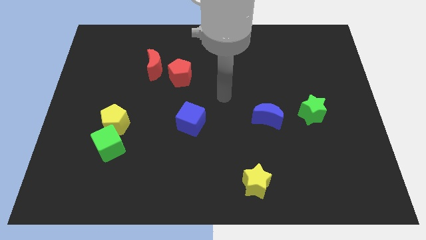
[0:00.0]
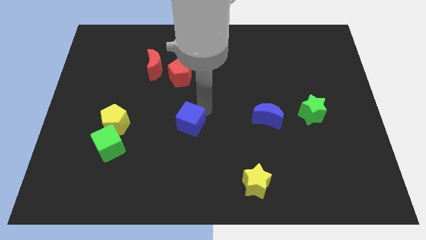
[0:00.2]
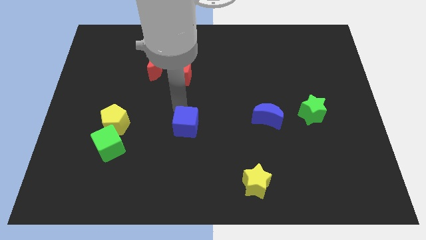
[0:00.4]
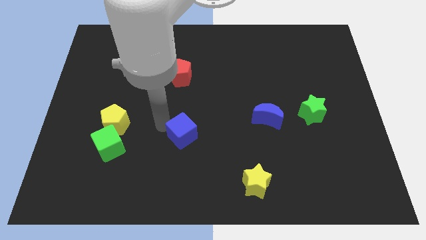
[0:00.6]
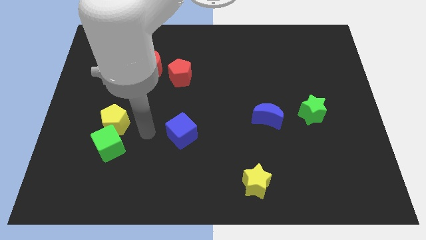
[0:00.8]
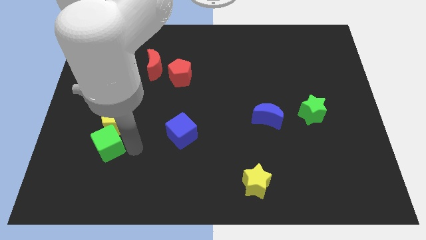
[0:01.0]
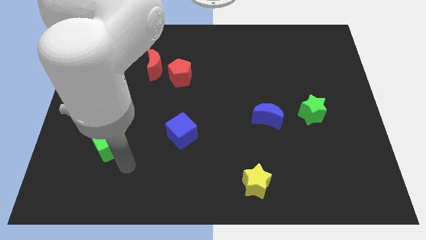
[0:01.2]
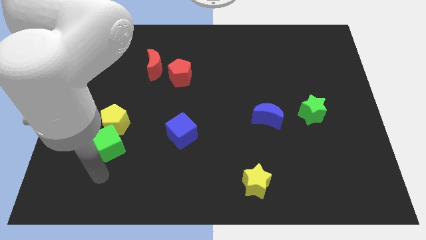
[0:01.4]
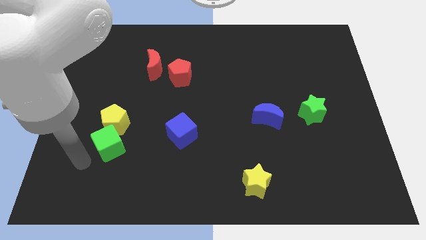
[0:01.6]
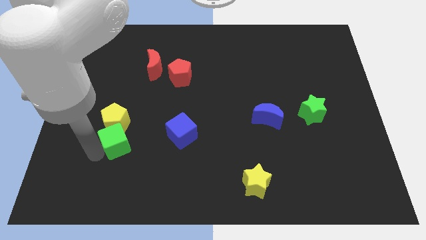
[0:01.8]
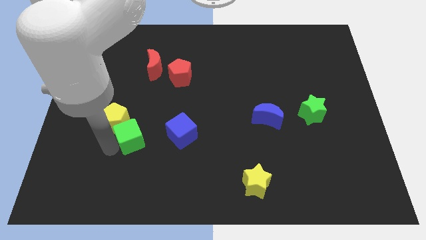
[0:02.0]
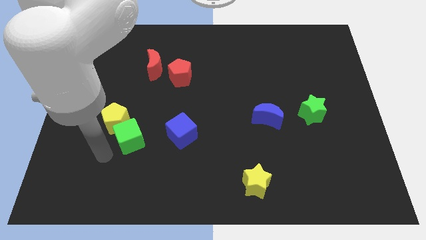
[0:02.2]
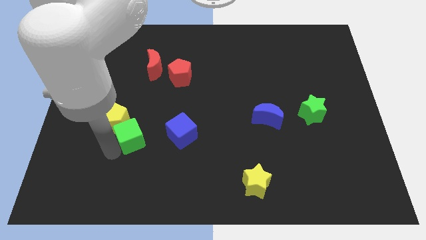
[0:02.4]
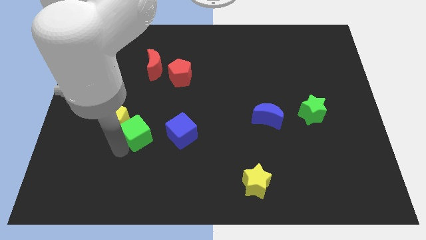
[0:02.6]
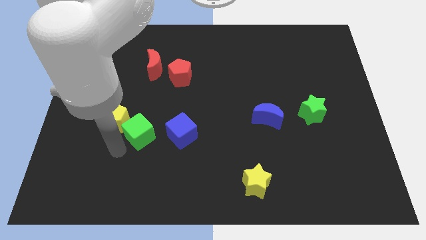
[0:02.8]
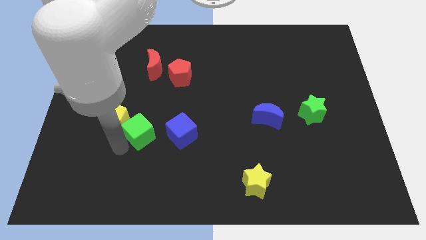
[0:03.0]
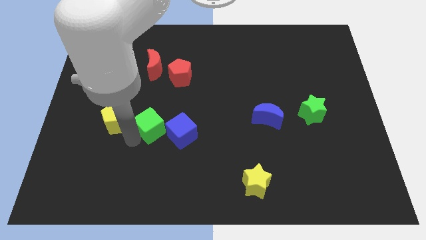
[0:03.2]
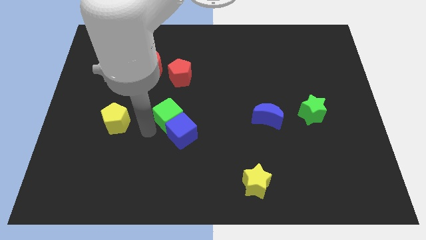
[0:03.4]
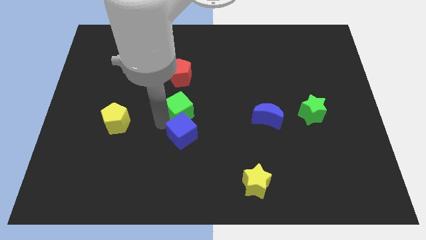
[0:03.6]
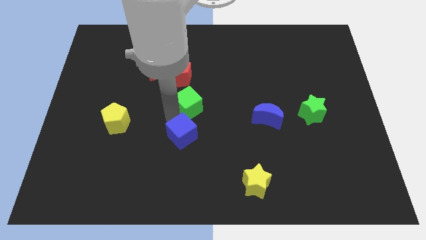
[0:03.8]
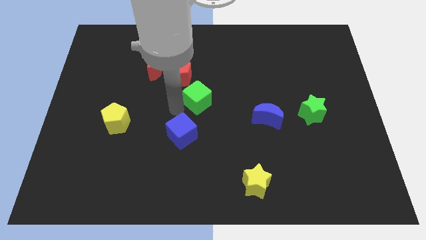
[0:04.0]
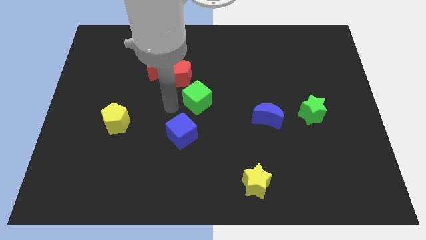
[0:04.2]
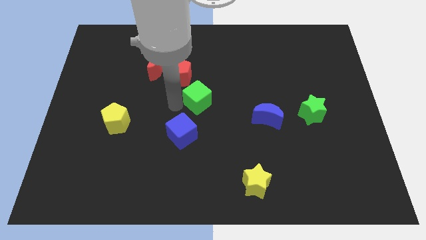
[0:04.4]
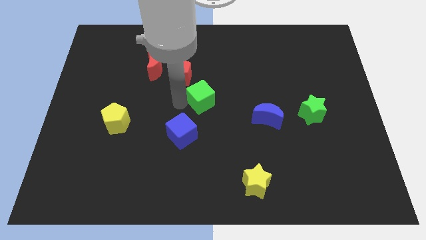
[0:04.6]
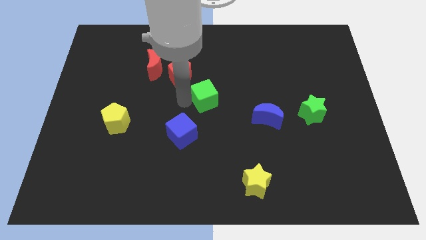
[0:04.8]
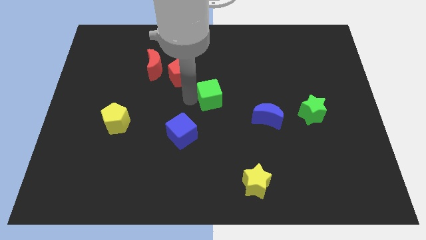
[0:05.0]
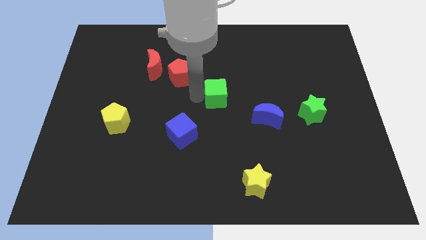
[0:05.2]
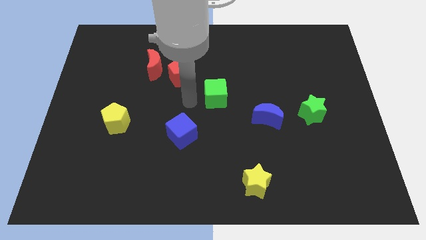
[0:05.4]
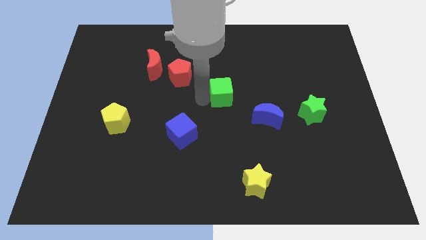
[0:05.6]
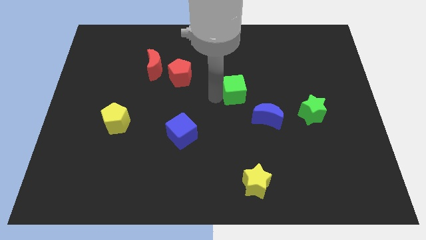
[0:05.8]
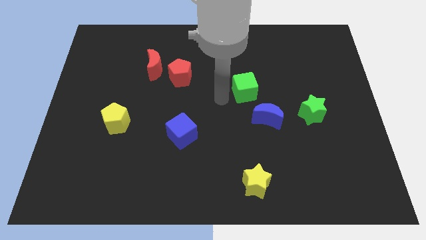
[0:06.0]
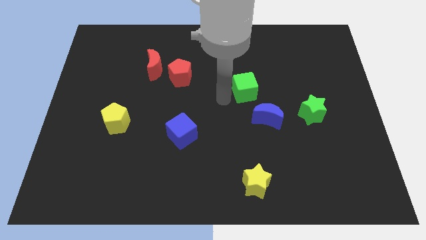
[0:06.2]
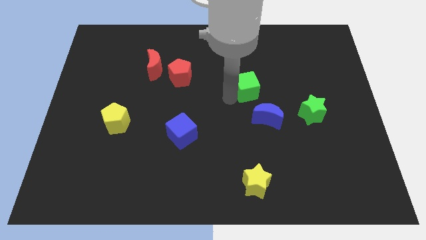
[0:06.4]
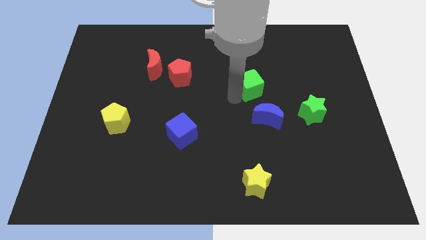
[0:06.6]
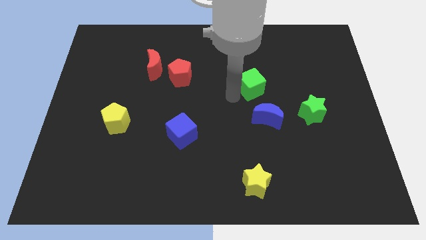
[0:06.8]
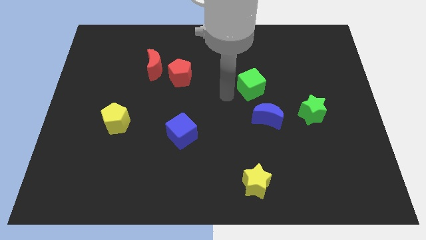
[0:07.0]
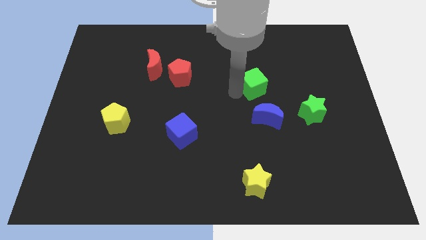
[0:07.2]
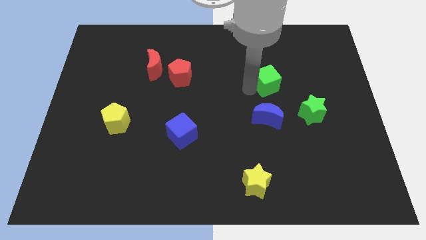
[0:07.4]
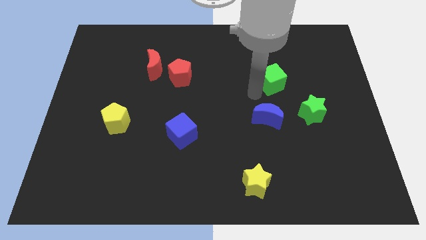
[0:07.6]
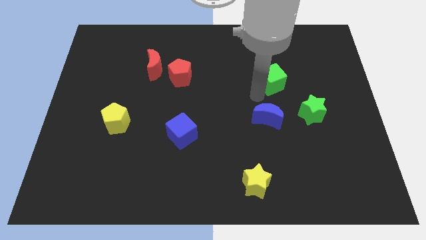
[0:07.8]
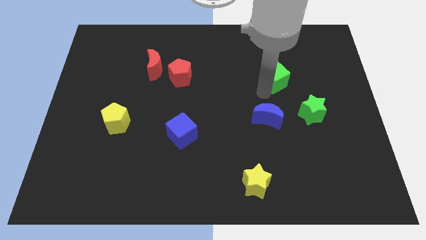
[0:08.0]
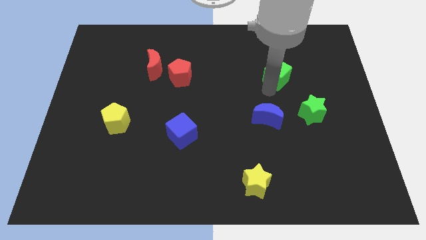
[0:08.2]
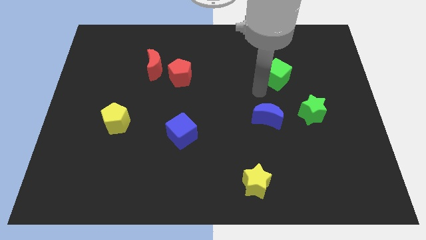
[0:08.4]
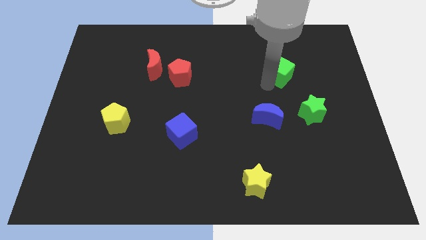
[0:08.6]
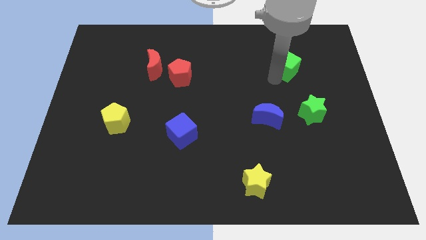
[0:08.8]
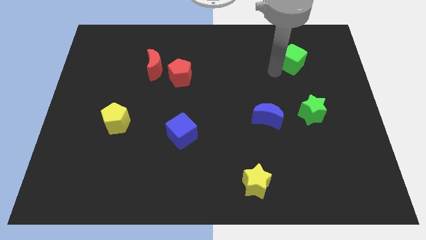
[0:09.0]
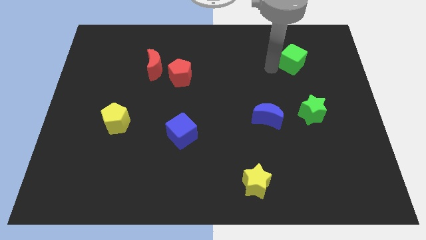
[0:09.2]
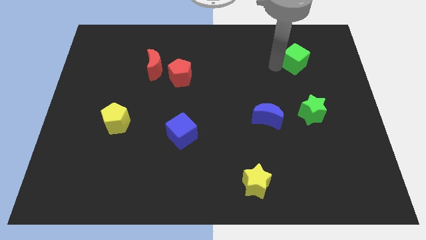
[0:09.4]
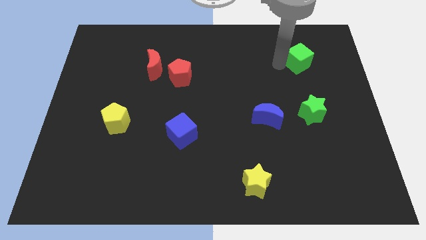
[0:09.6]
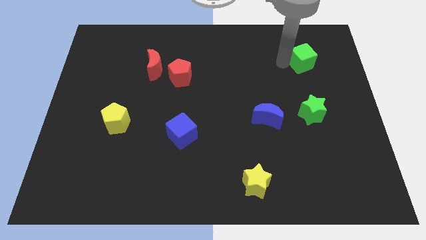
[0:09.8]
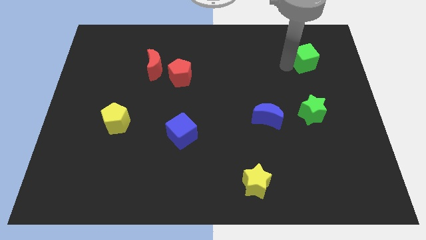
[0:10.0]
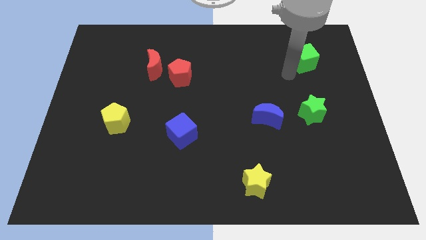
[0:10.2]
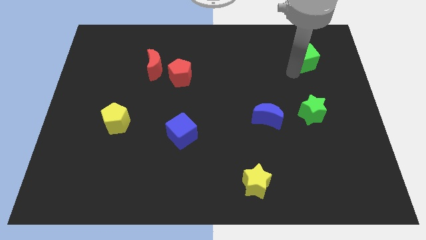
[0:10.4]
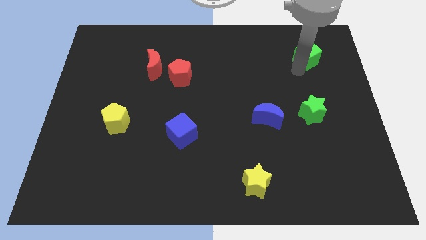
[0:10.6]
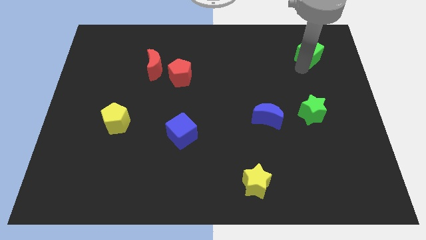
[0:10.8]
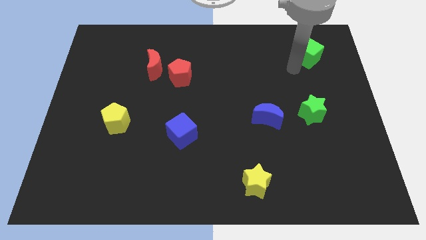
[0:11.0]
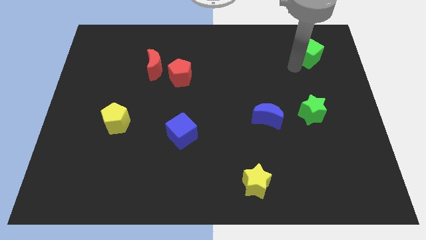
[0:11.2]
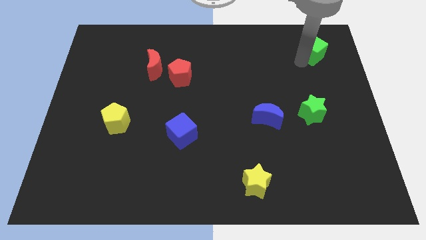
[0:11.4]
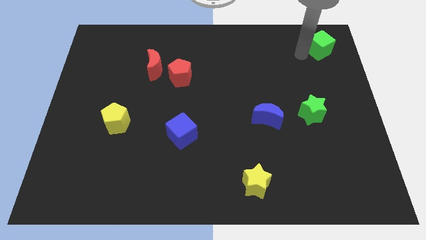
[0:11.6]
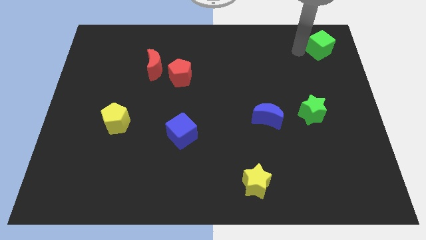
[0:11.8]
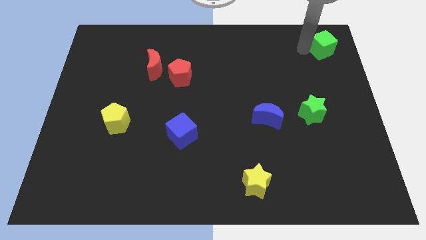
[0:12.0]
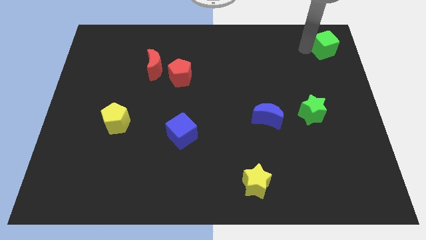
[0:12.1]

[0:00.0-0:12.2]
slide the green cube to the top right of the board

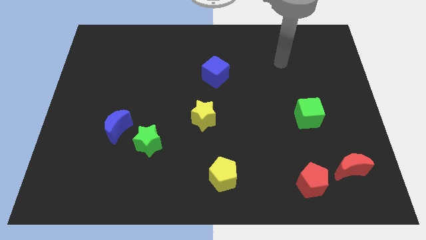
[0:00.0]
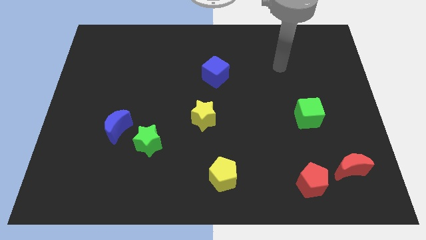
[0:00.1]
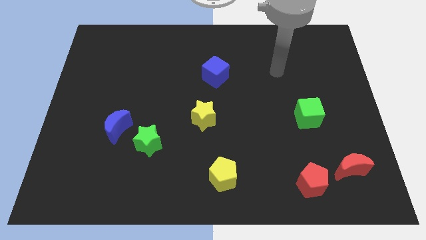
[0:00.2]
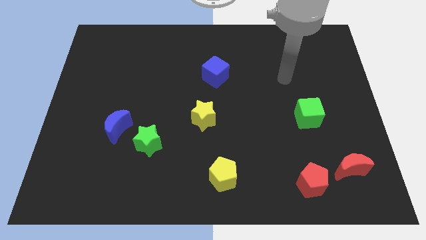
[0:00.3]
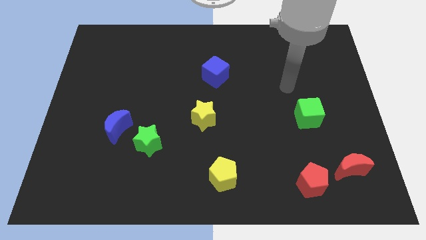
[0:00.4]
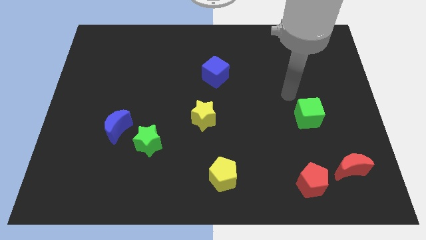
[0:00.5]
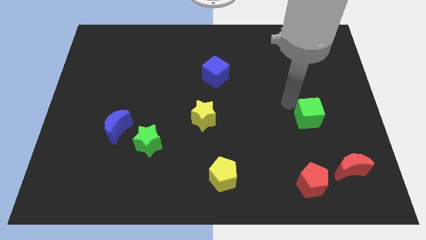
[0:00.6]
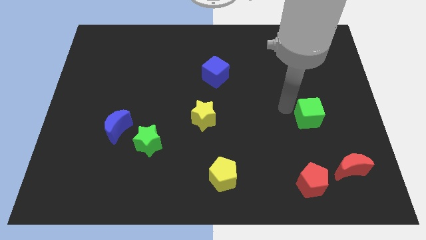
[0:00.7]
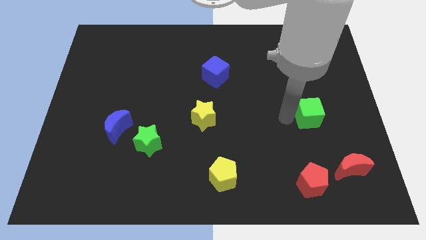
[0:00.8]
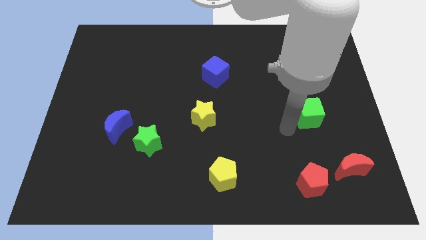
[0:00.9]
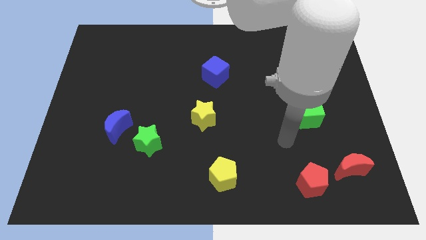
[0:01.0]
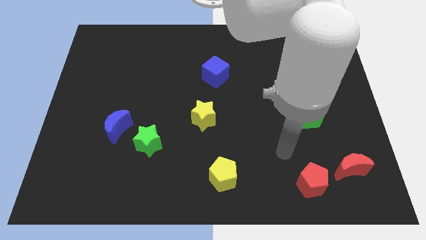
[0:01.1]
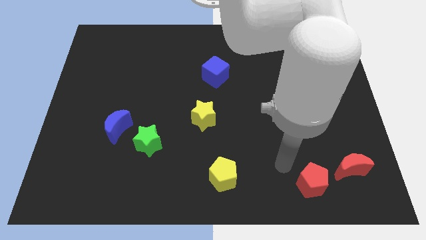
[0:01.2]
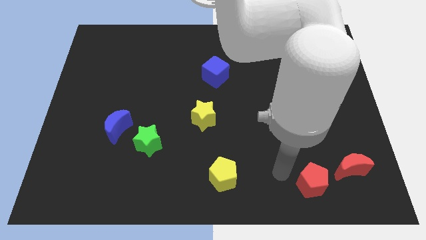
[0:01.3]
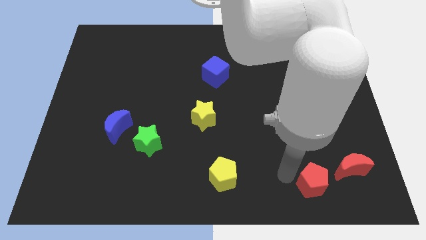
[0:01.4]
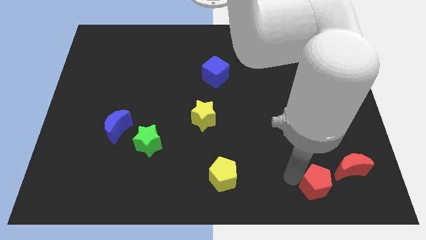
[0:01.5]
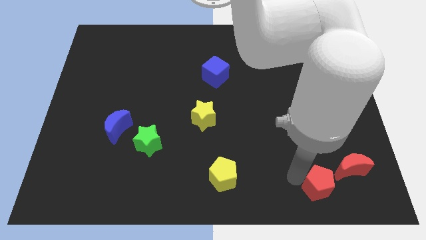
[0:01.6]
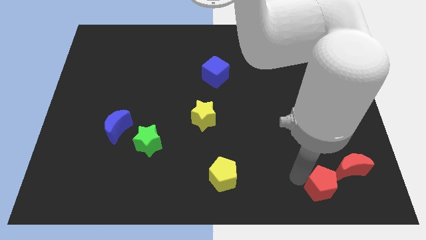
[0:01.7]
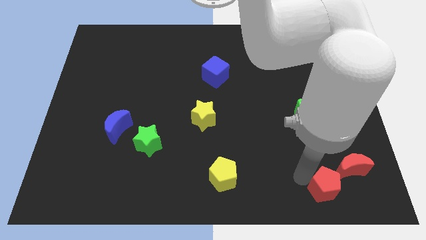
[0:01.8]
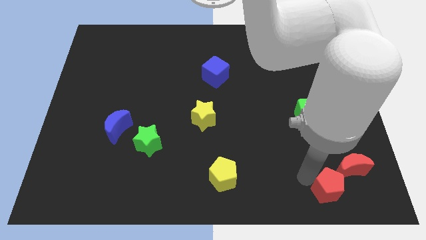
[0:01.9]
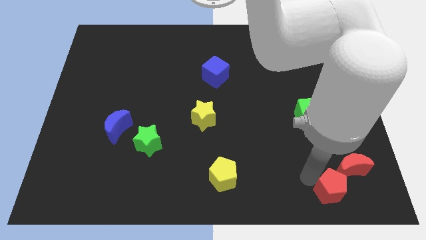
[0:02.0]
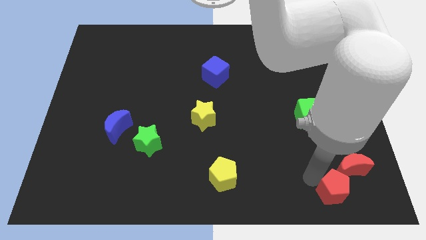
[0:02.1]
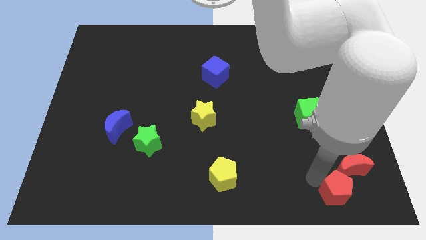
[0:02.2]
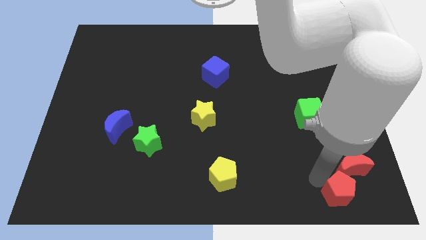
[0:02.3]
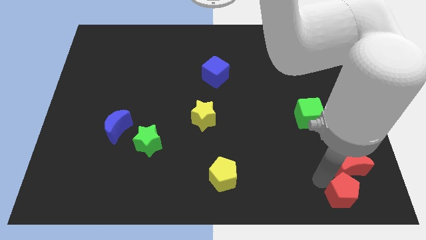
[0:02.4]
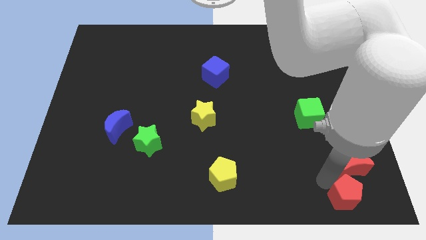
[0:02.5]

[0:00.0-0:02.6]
put the red pentagon to the bottom right corner
